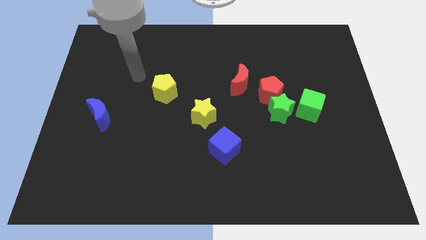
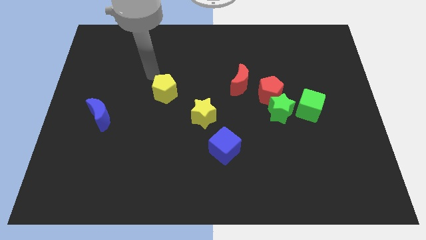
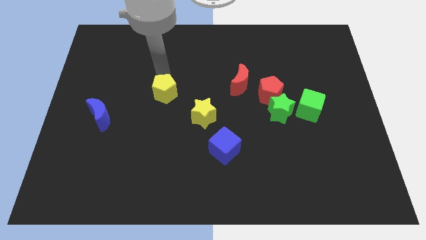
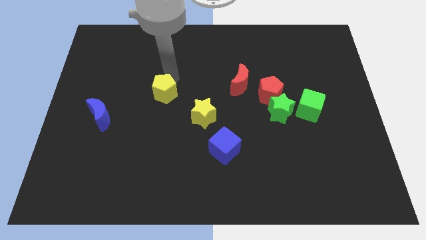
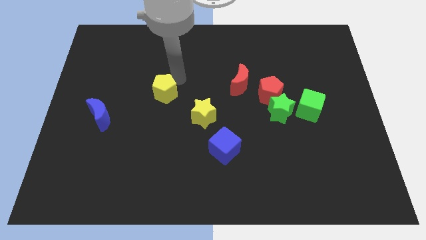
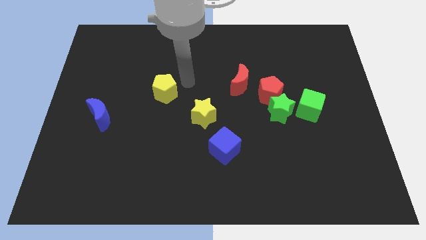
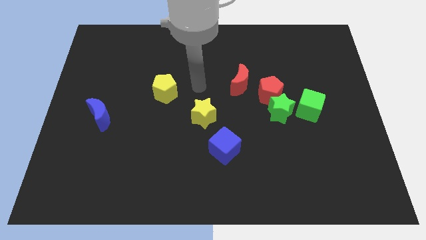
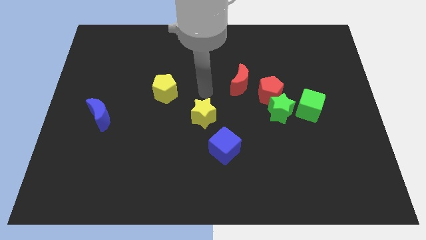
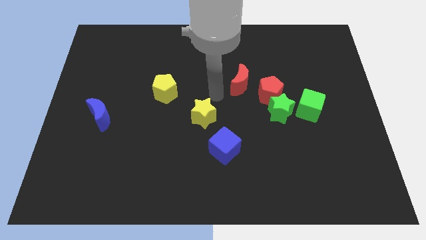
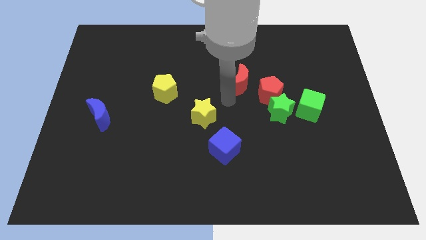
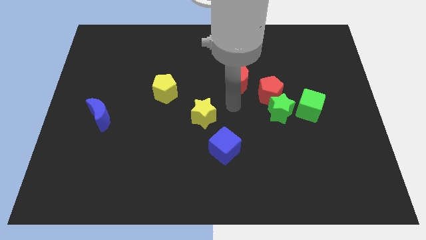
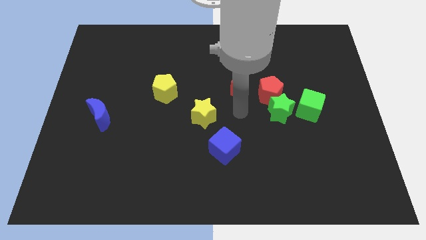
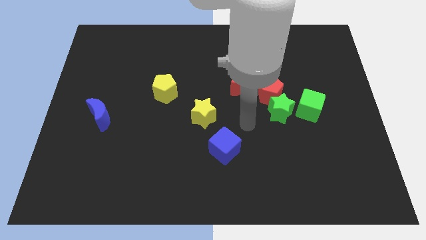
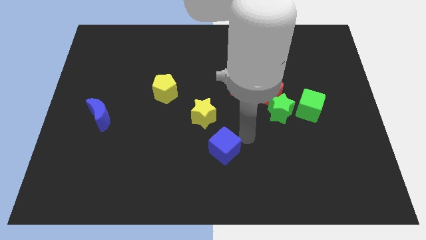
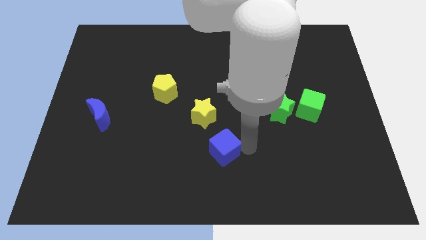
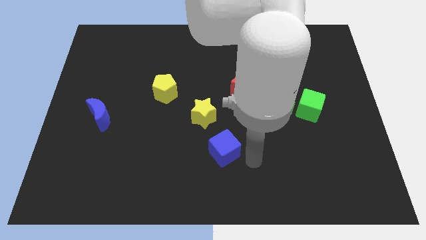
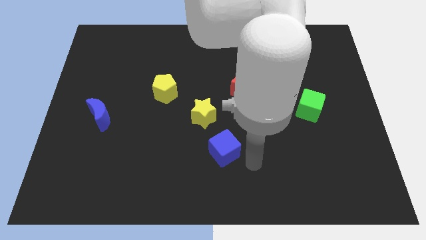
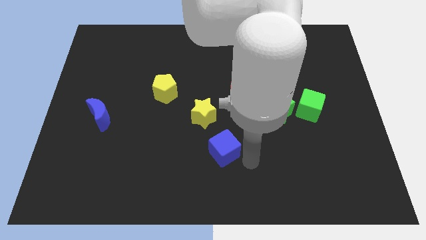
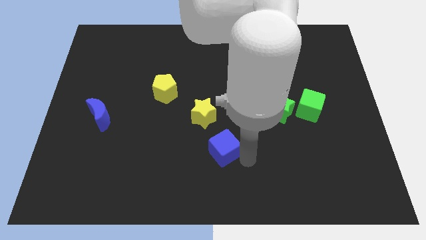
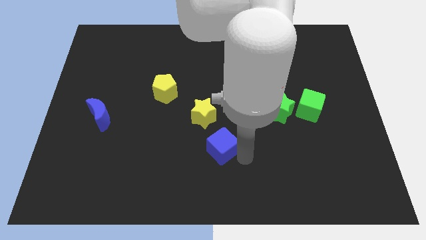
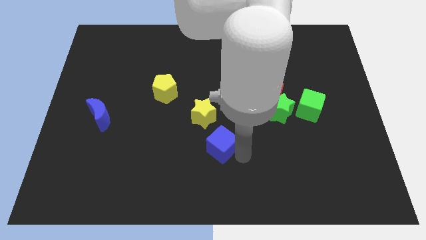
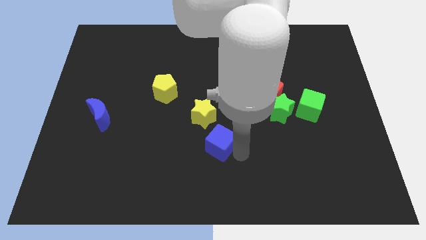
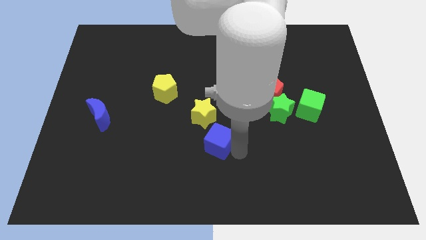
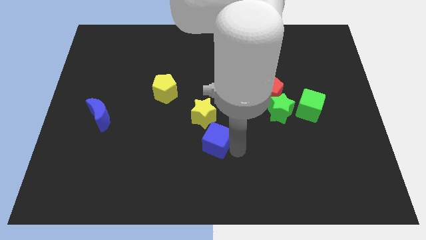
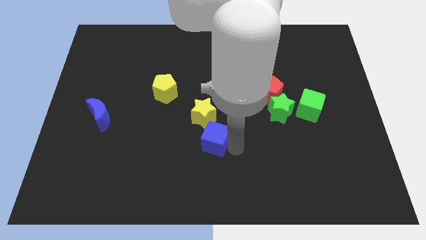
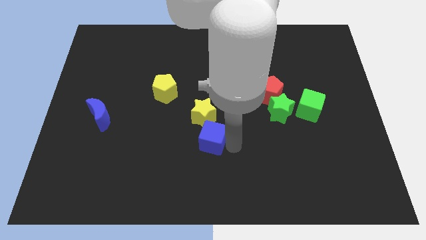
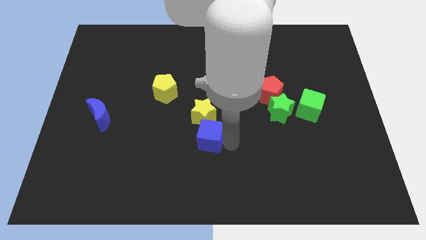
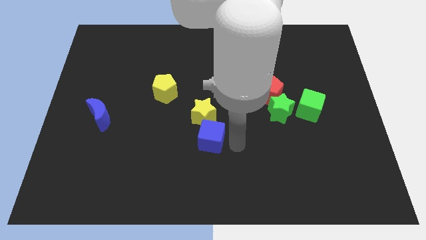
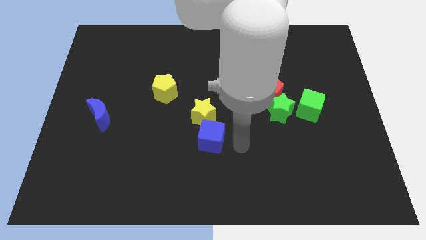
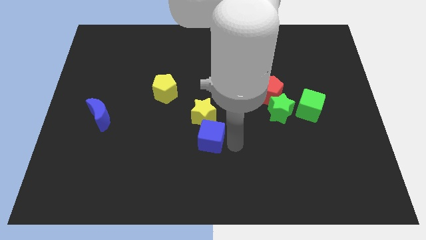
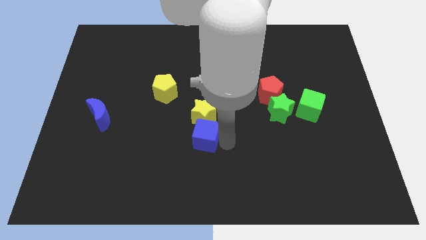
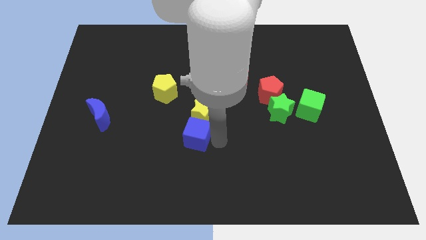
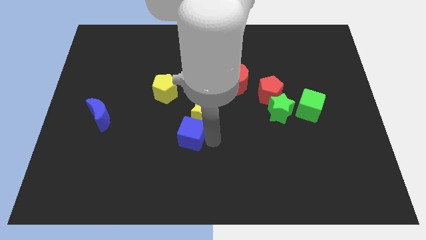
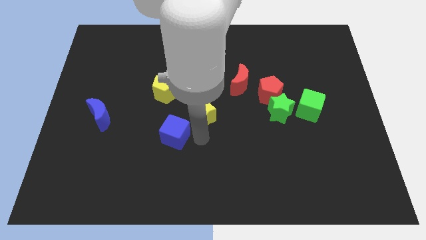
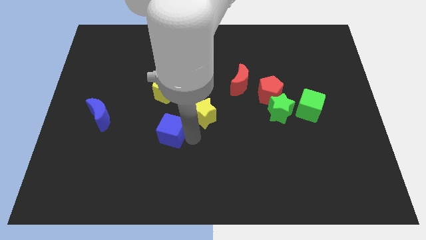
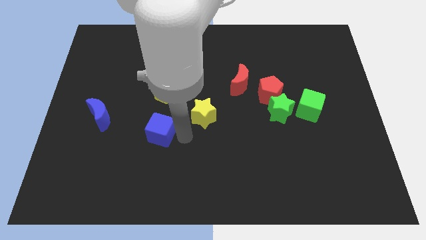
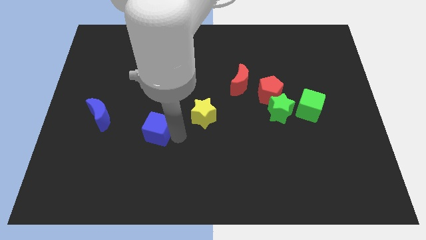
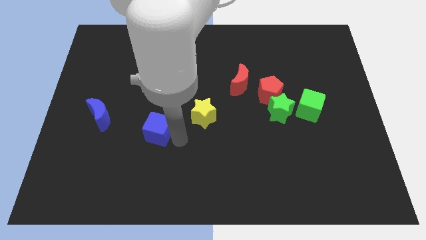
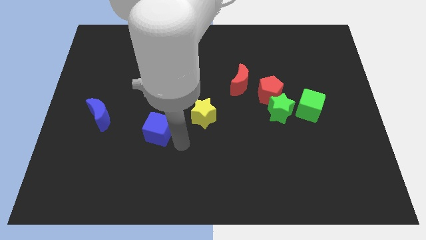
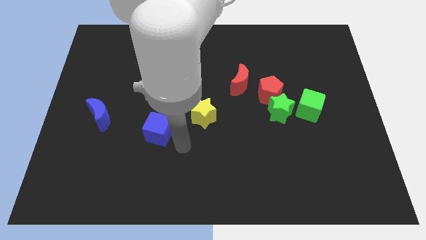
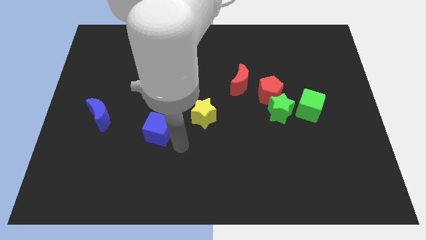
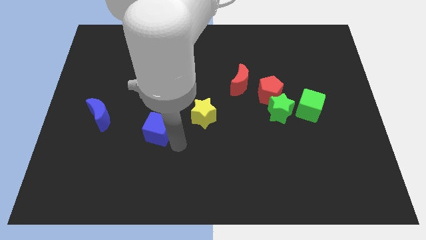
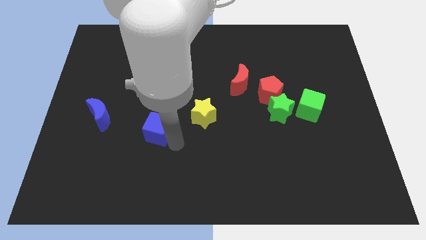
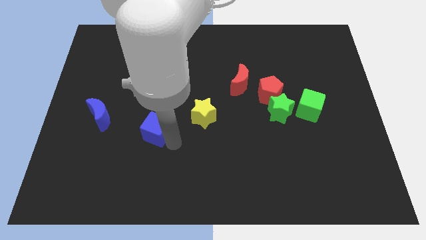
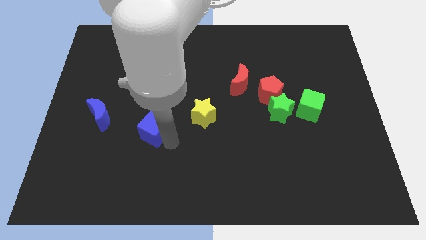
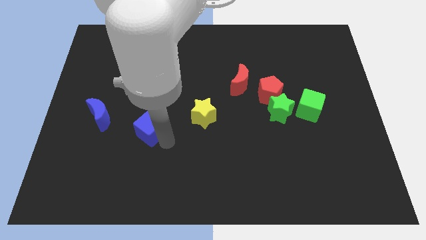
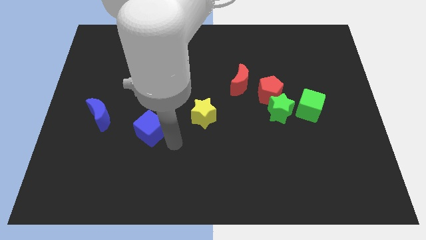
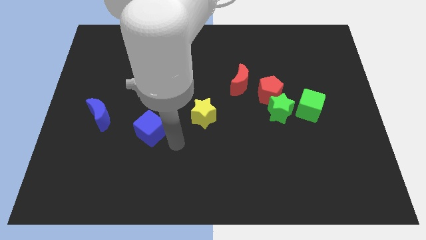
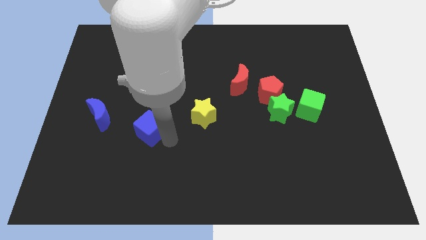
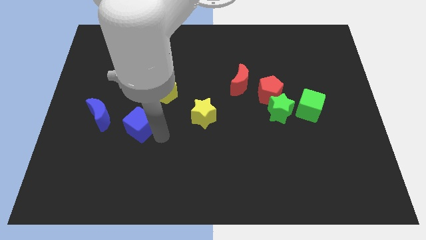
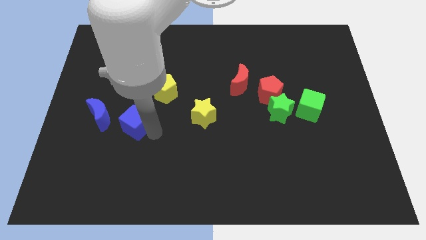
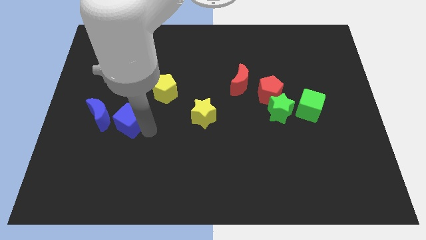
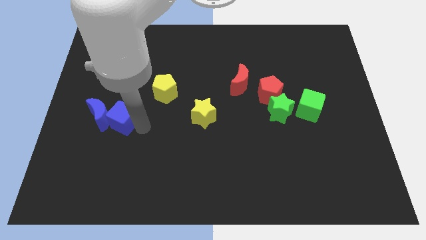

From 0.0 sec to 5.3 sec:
put the blue cube to the blue moon

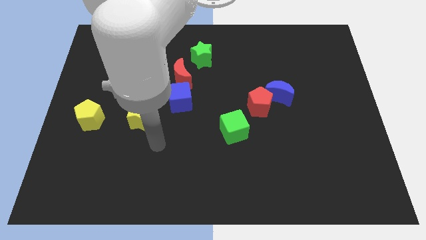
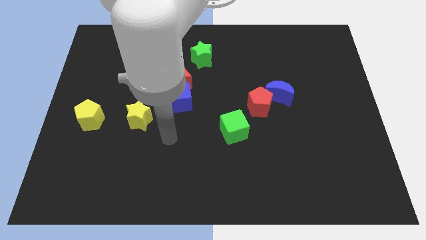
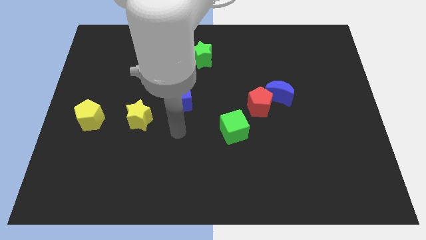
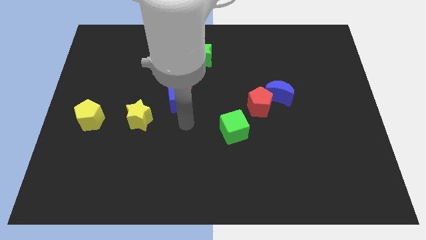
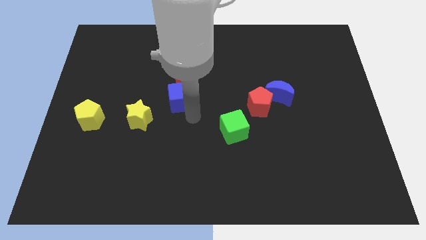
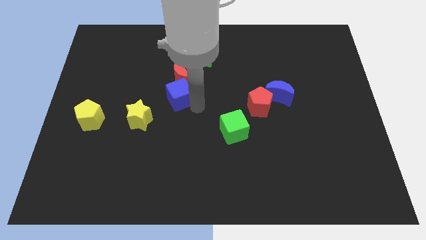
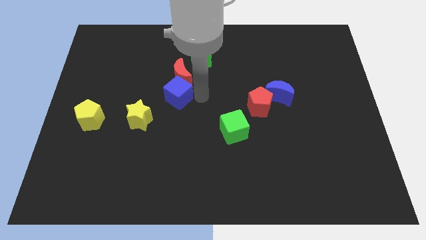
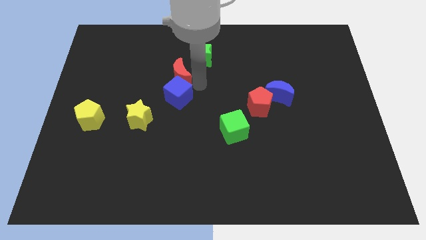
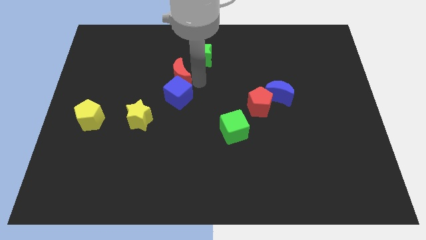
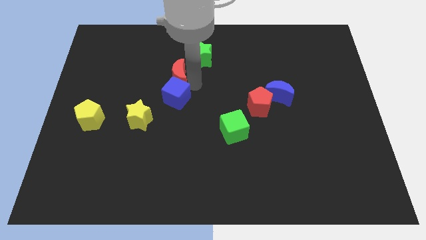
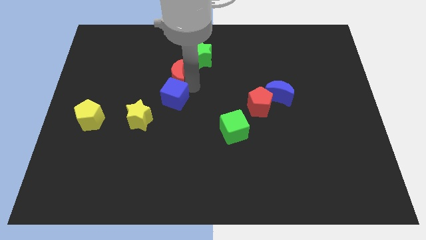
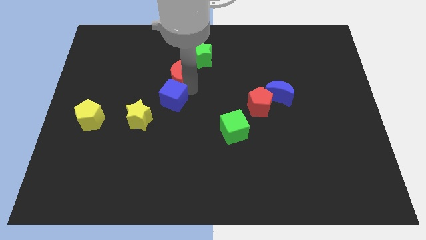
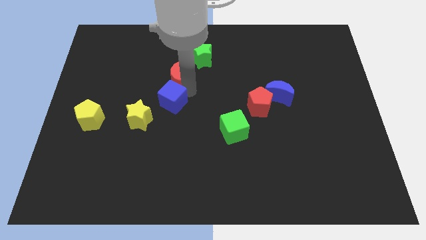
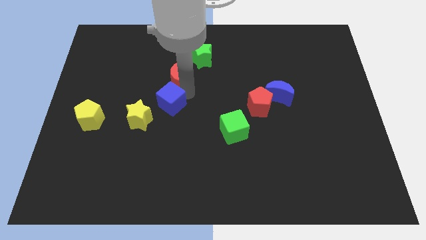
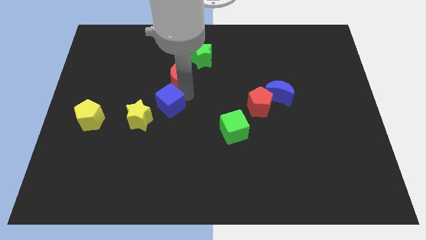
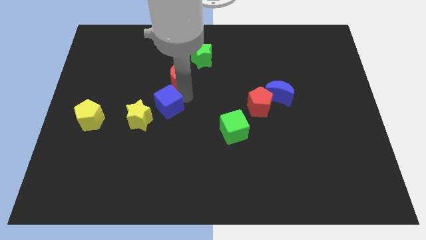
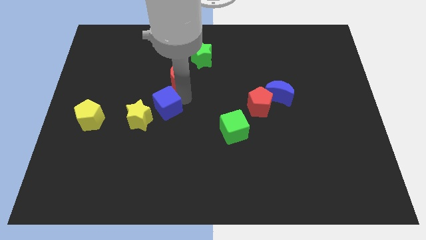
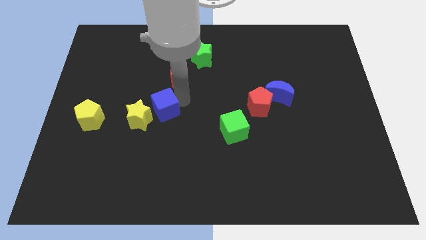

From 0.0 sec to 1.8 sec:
slide the blue cube towards the yellow star

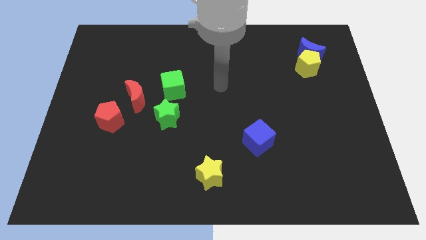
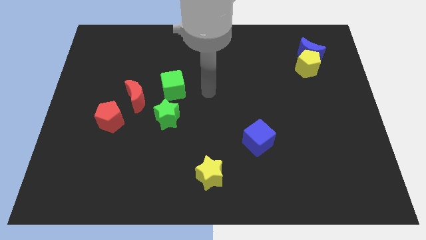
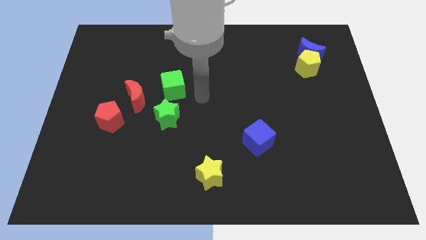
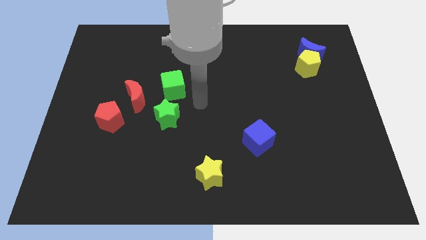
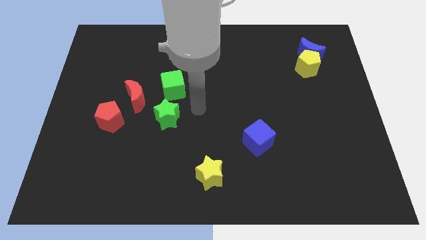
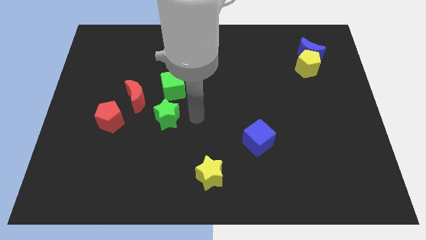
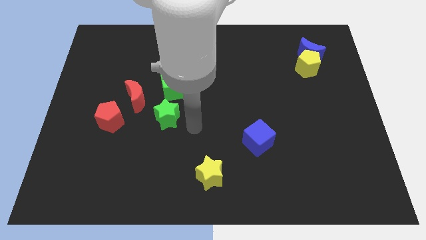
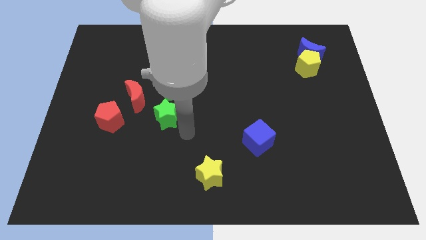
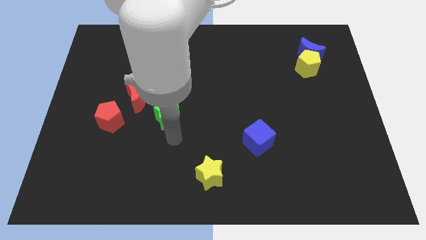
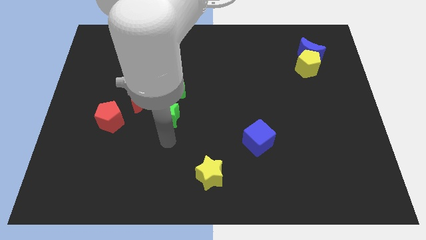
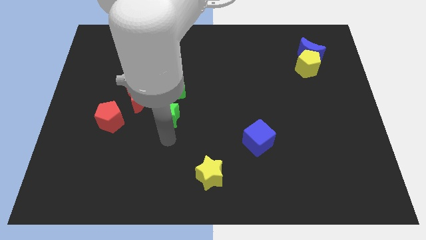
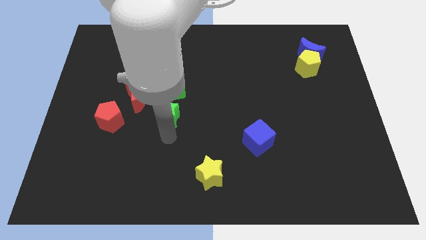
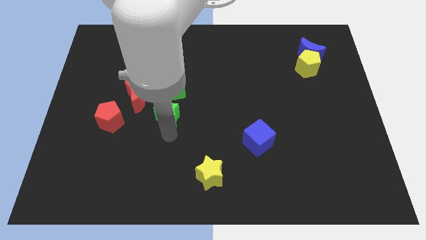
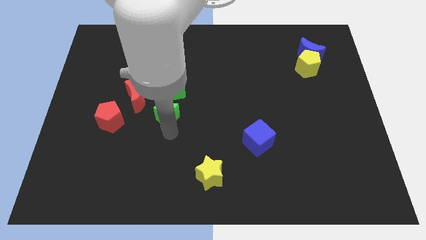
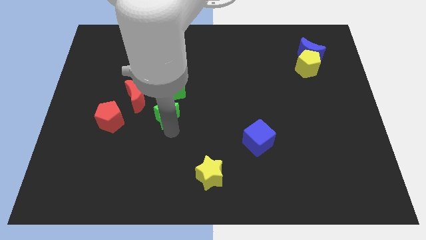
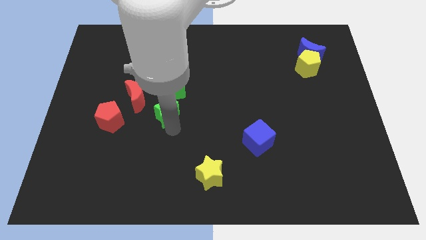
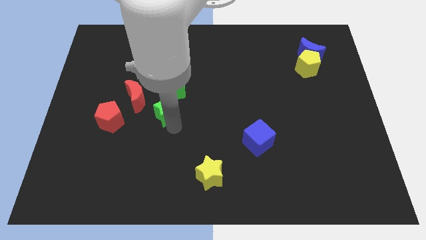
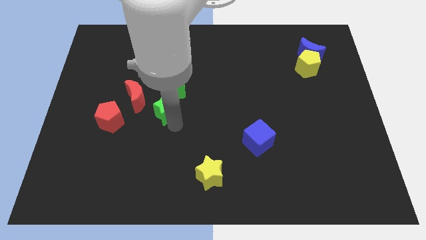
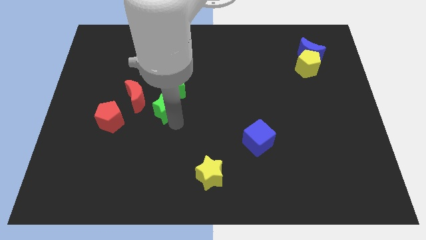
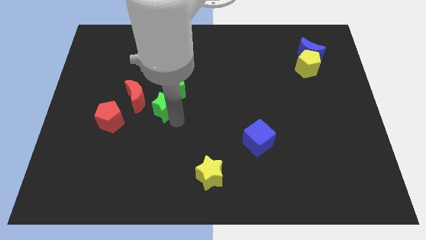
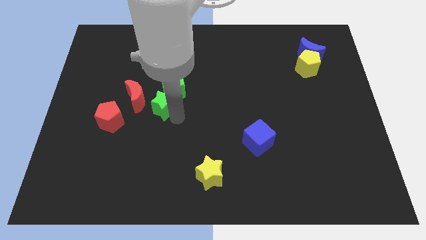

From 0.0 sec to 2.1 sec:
put the green star towards the green cube
